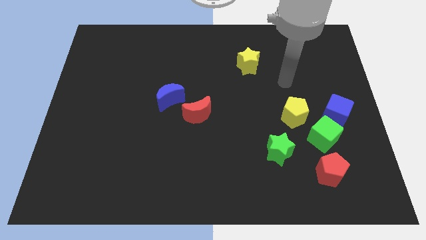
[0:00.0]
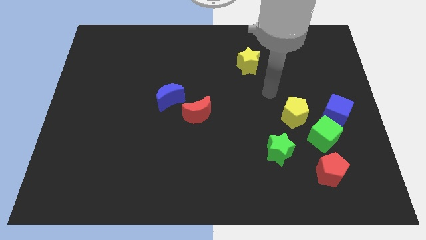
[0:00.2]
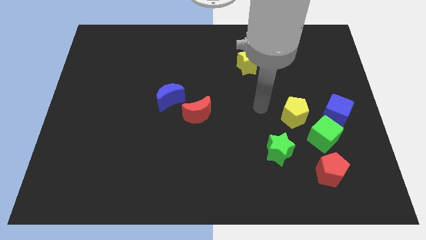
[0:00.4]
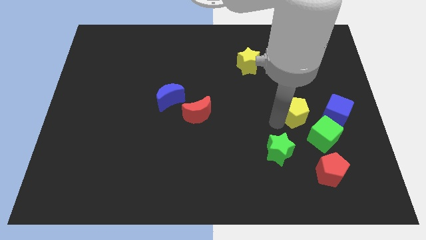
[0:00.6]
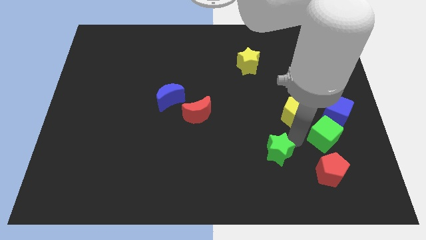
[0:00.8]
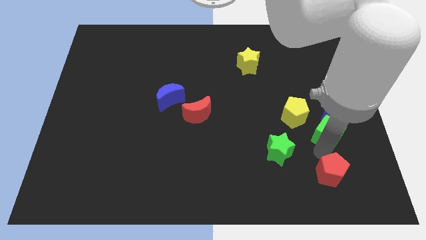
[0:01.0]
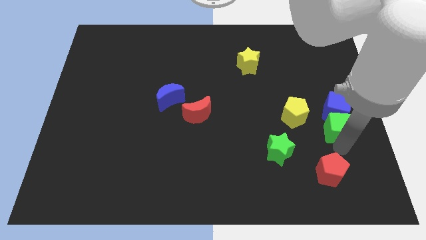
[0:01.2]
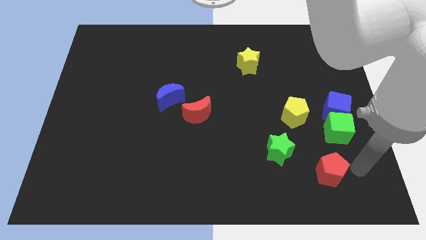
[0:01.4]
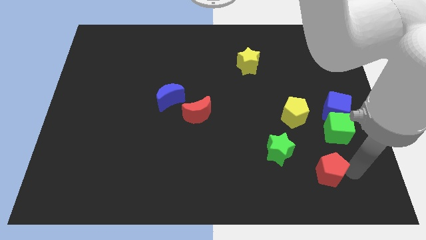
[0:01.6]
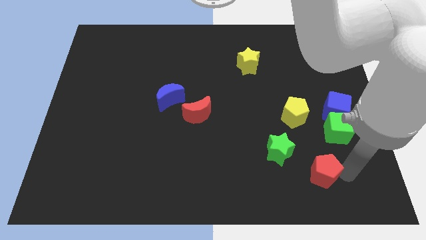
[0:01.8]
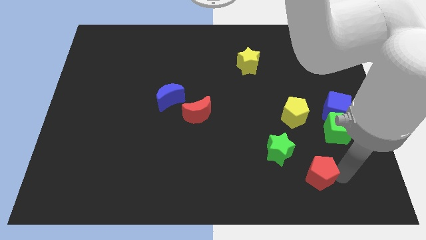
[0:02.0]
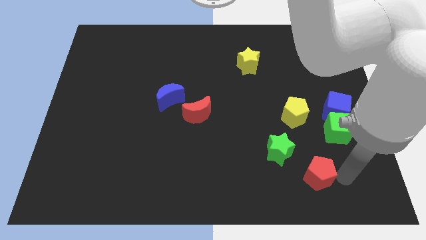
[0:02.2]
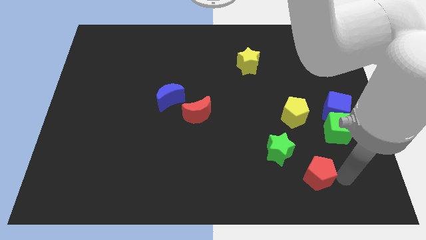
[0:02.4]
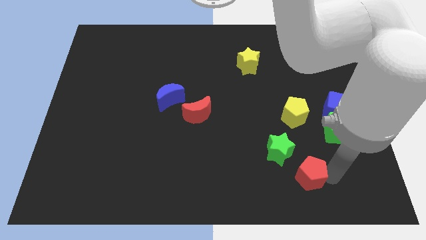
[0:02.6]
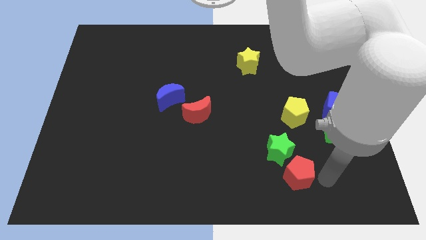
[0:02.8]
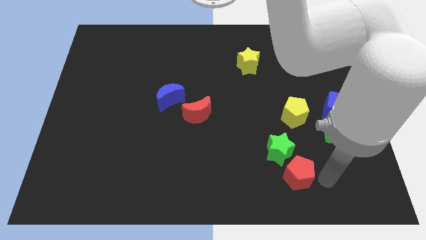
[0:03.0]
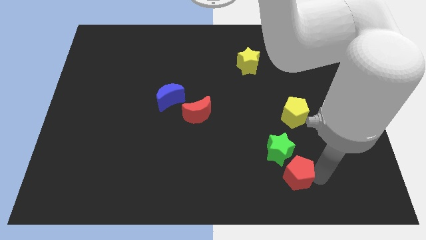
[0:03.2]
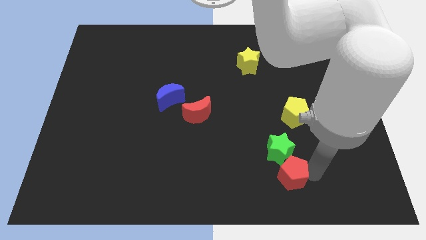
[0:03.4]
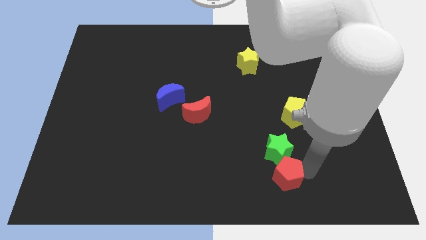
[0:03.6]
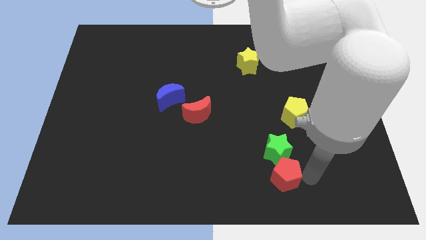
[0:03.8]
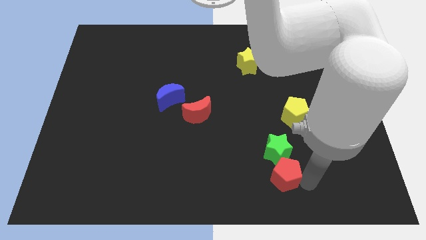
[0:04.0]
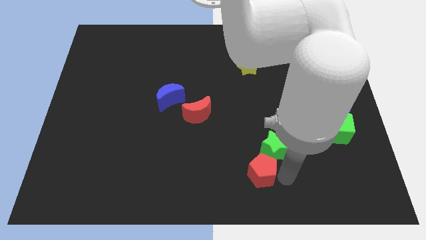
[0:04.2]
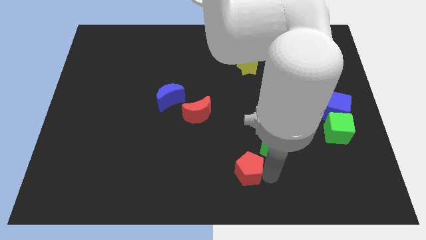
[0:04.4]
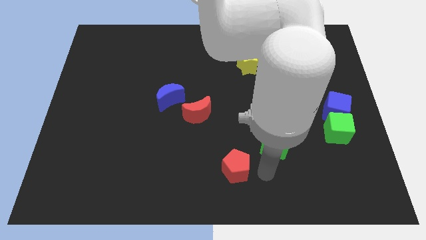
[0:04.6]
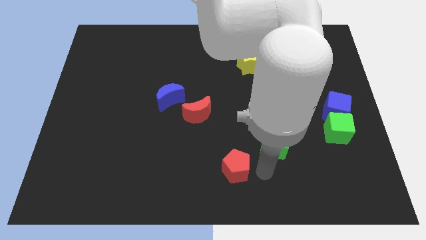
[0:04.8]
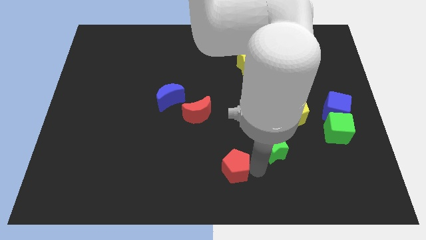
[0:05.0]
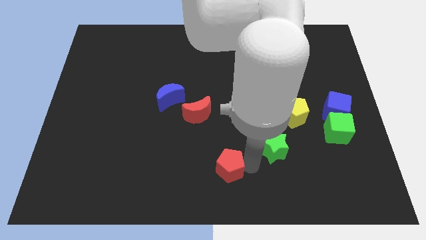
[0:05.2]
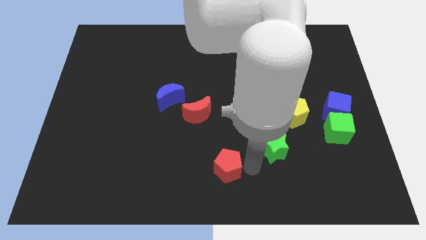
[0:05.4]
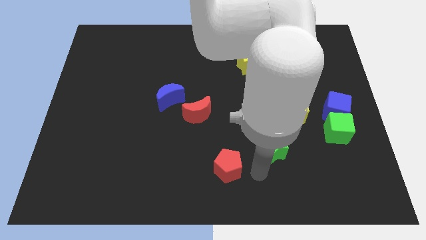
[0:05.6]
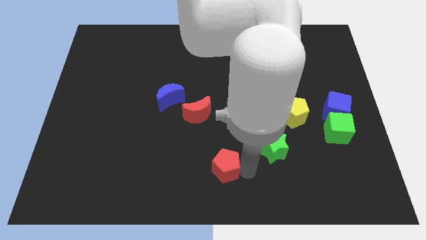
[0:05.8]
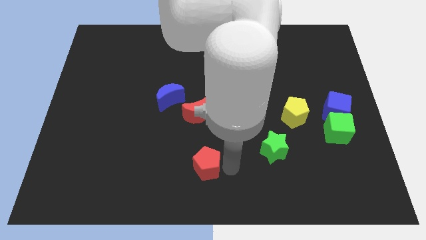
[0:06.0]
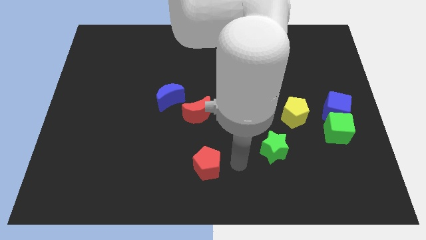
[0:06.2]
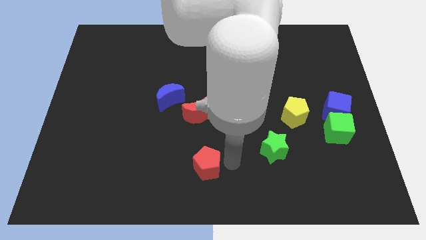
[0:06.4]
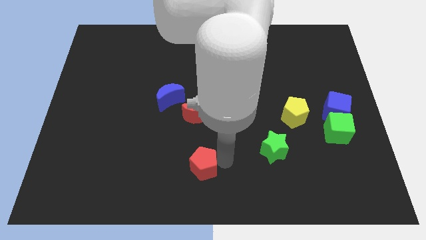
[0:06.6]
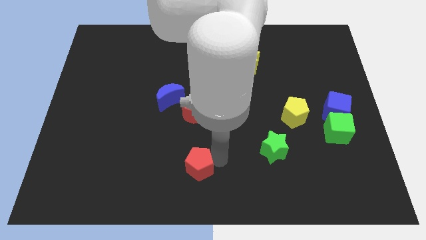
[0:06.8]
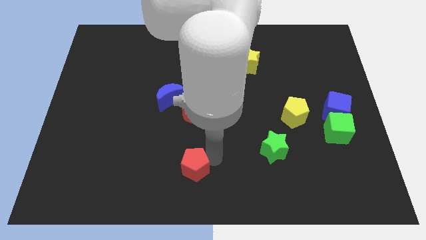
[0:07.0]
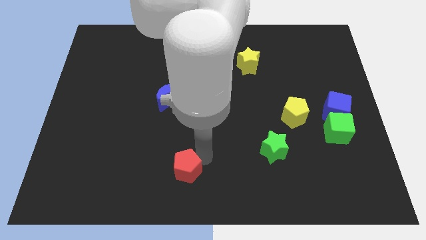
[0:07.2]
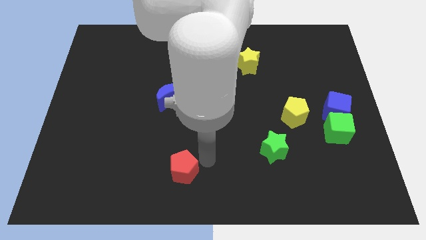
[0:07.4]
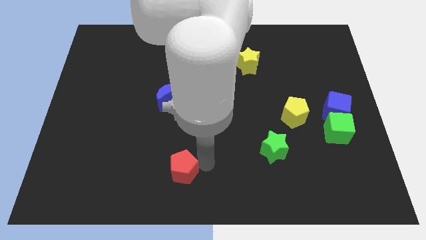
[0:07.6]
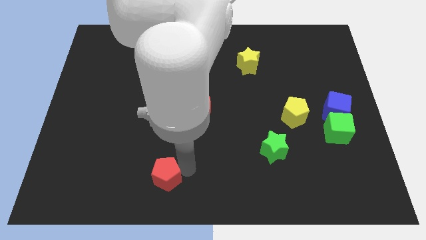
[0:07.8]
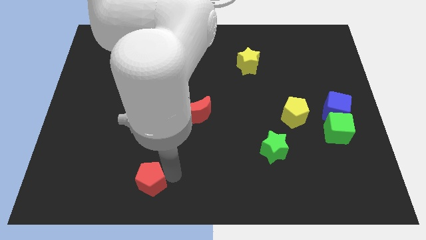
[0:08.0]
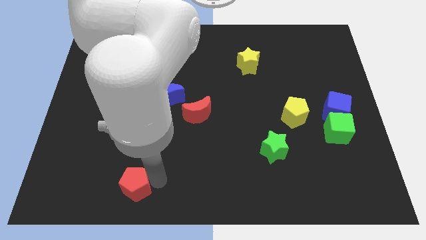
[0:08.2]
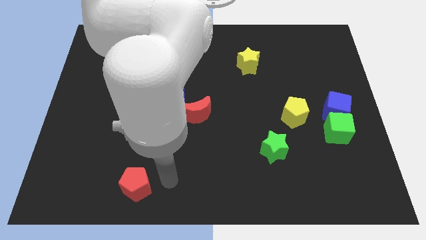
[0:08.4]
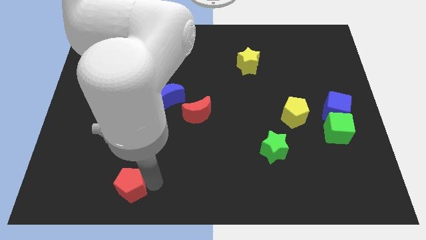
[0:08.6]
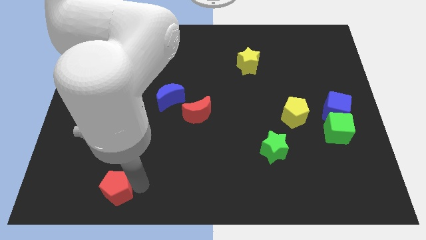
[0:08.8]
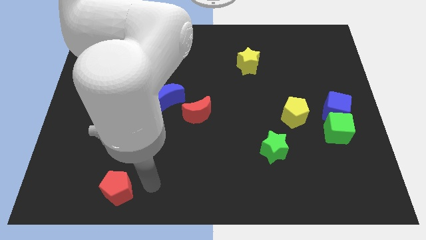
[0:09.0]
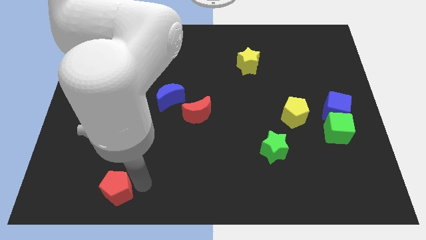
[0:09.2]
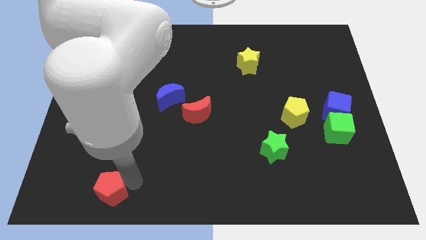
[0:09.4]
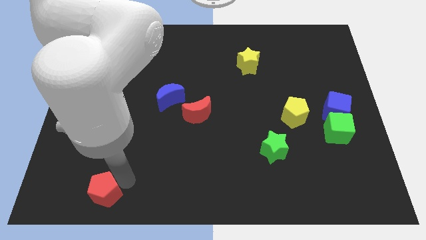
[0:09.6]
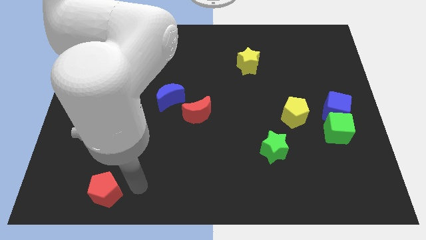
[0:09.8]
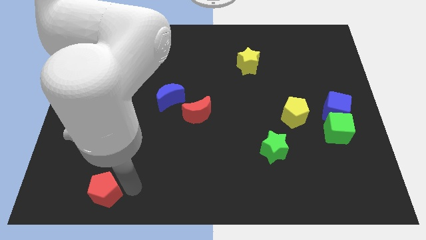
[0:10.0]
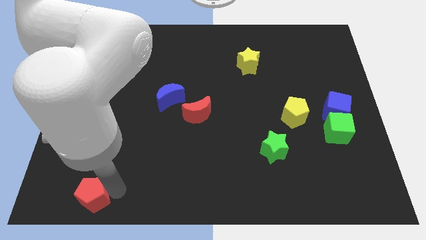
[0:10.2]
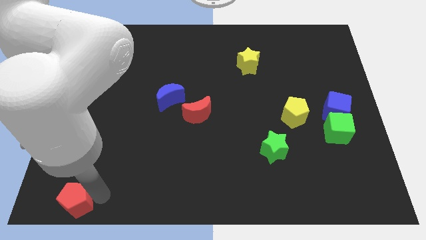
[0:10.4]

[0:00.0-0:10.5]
slide the red pentagon to the bottom left

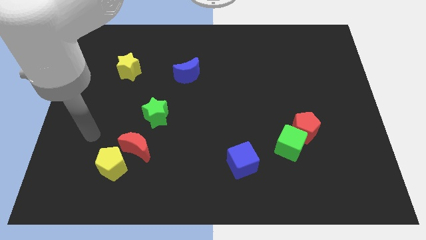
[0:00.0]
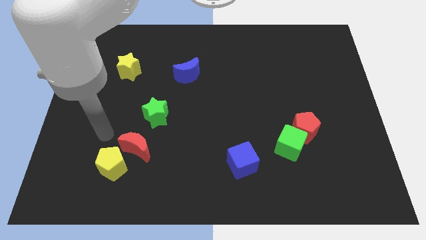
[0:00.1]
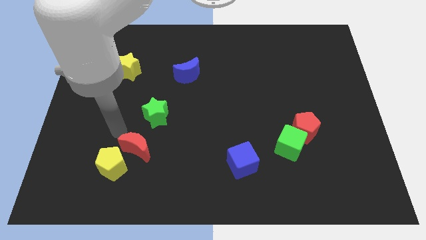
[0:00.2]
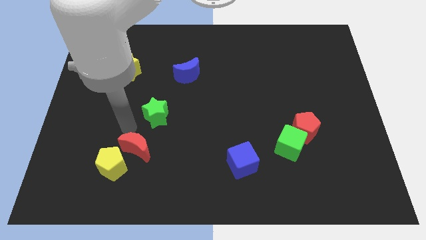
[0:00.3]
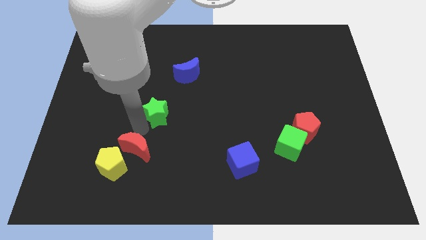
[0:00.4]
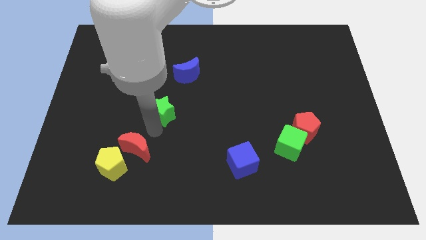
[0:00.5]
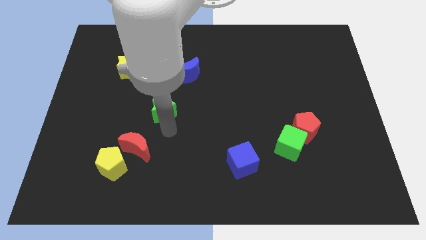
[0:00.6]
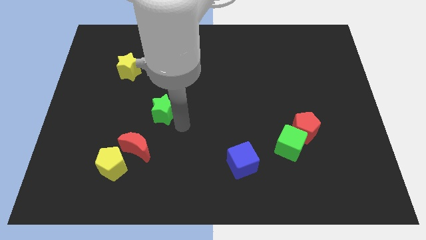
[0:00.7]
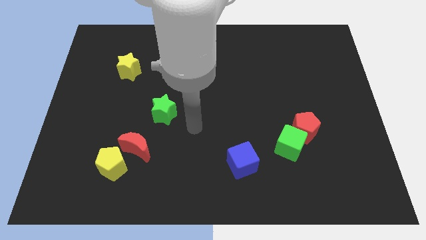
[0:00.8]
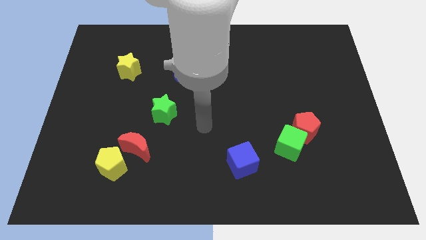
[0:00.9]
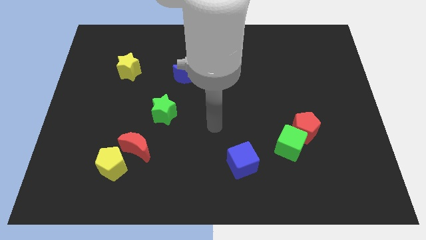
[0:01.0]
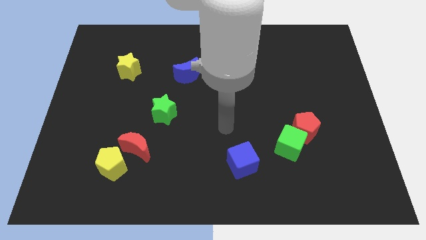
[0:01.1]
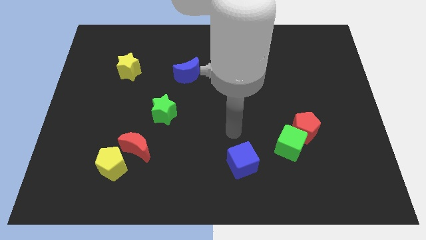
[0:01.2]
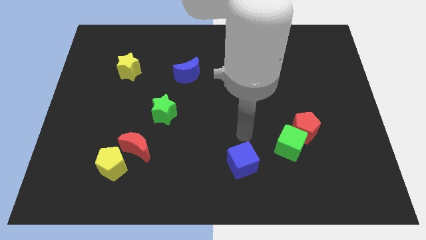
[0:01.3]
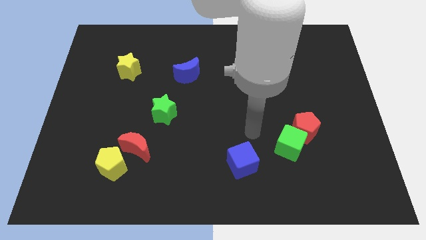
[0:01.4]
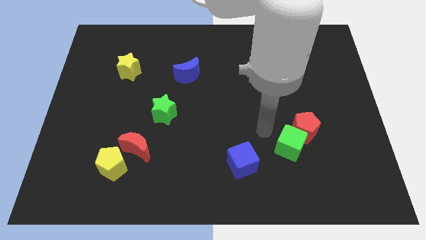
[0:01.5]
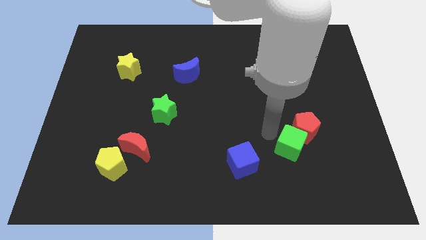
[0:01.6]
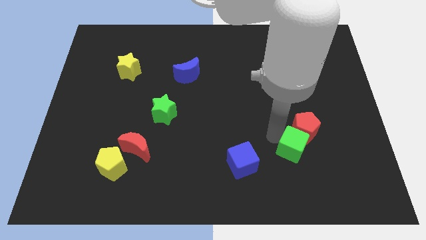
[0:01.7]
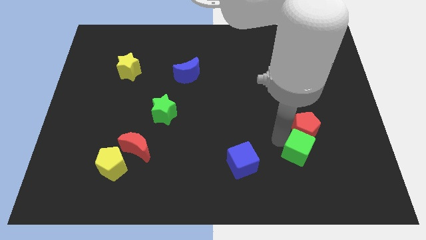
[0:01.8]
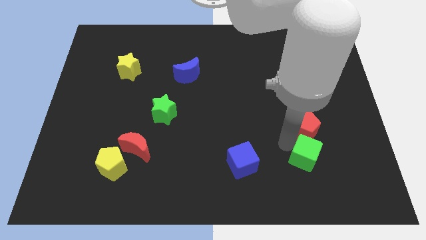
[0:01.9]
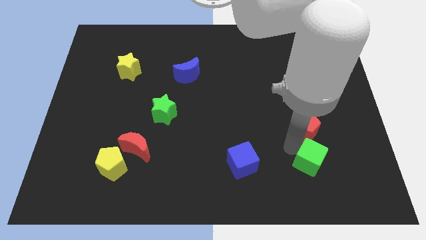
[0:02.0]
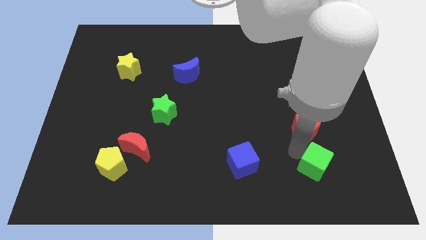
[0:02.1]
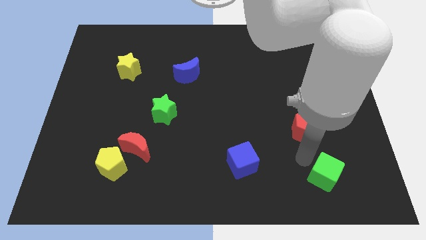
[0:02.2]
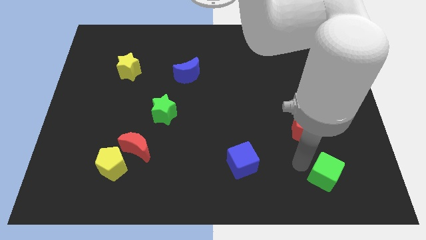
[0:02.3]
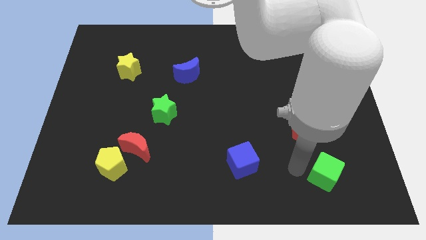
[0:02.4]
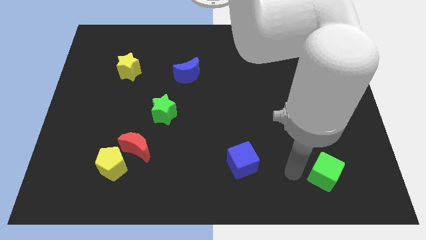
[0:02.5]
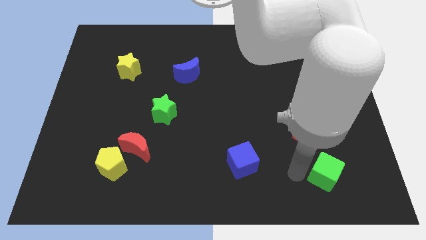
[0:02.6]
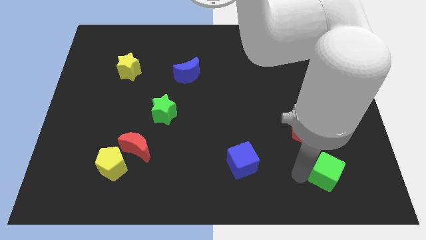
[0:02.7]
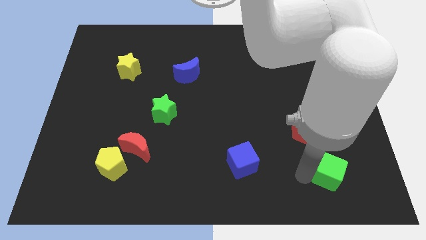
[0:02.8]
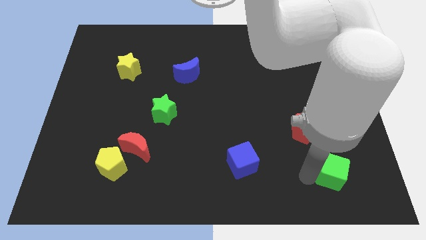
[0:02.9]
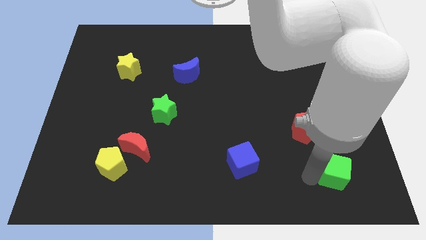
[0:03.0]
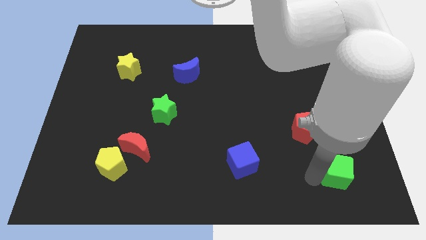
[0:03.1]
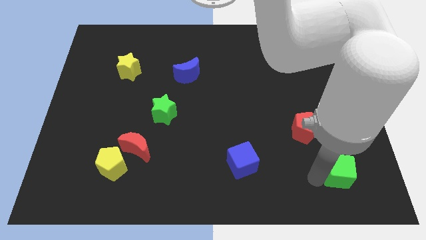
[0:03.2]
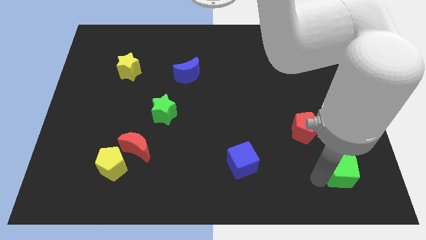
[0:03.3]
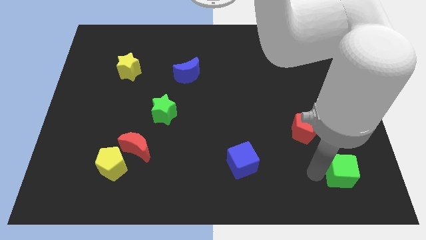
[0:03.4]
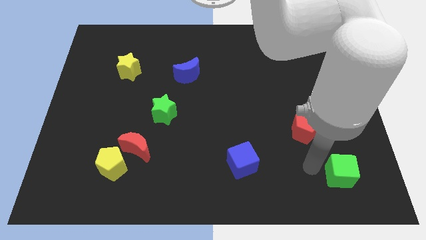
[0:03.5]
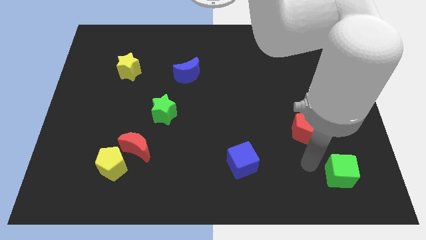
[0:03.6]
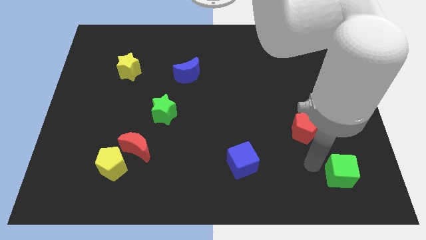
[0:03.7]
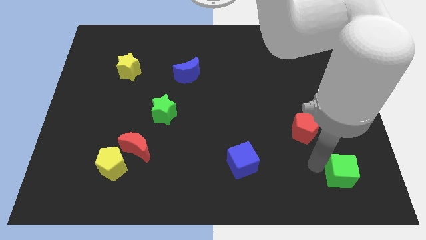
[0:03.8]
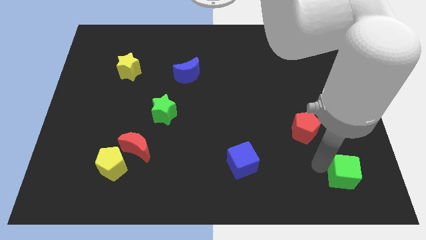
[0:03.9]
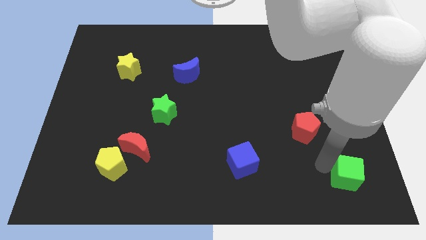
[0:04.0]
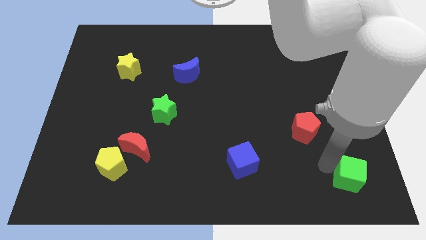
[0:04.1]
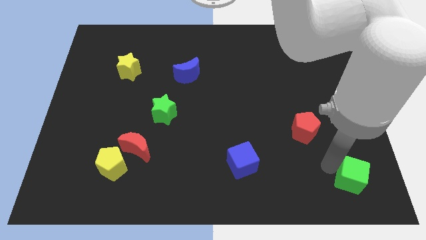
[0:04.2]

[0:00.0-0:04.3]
push the green cube to the bottom right of the board
